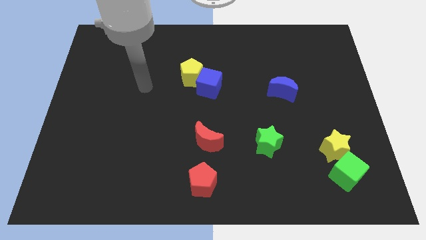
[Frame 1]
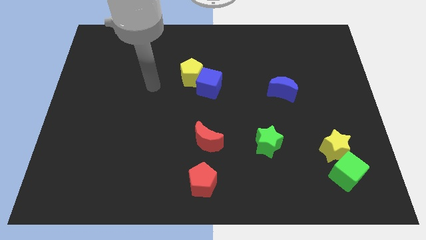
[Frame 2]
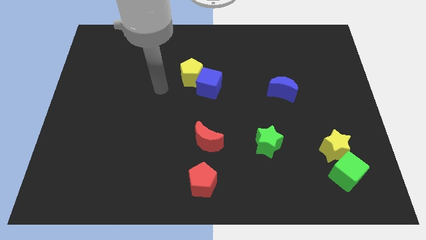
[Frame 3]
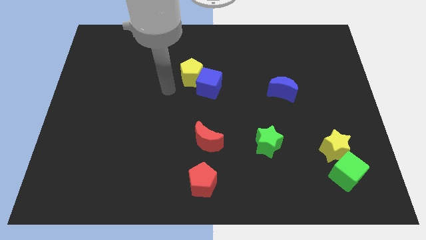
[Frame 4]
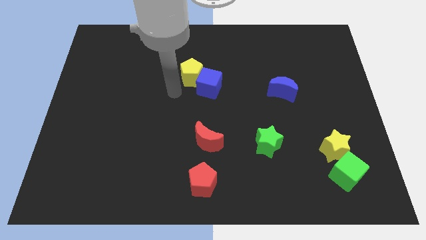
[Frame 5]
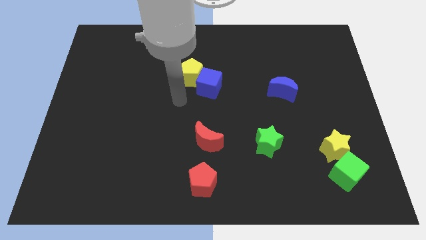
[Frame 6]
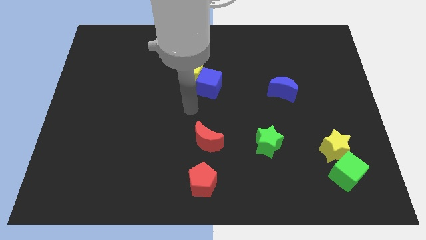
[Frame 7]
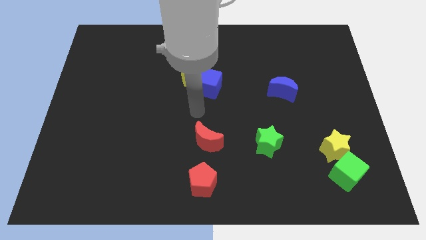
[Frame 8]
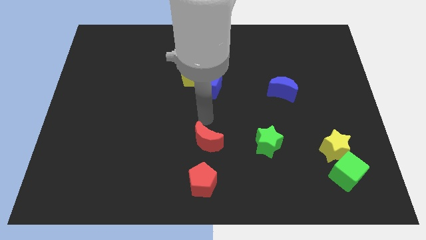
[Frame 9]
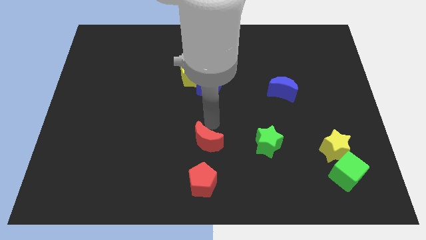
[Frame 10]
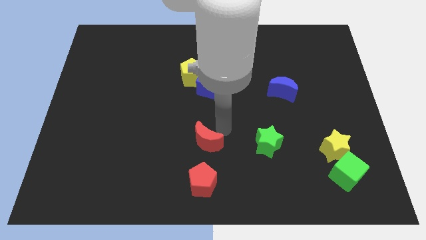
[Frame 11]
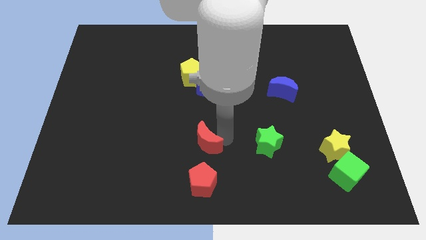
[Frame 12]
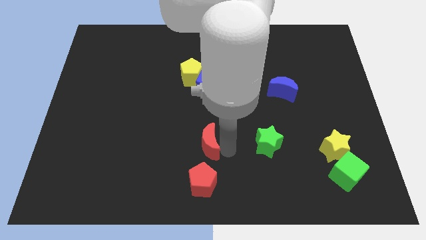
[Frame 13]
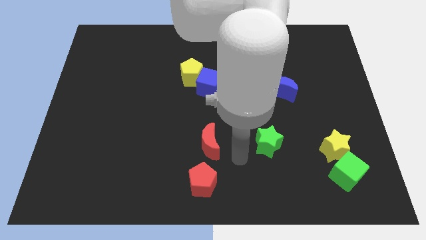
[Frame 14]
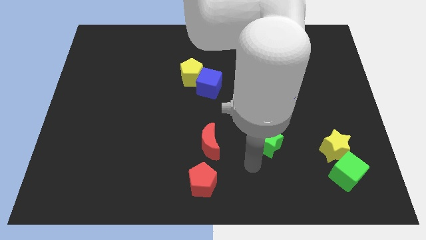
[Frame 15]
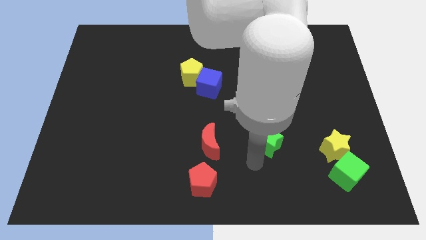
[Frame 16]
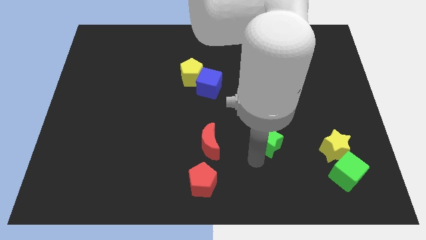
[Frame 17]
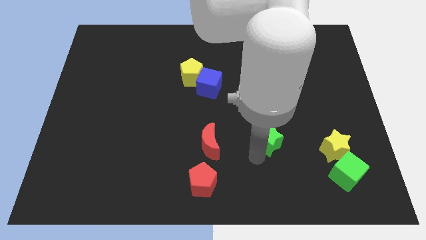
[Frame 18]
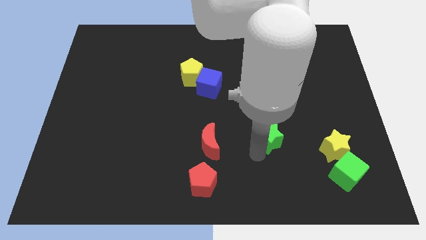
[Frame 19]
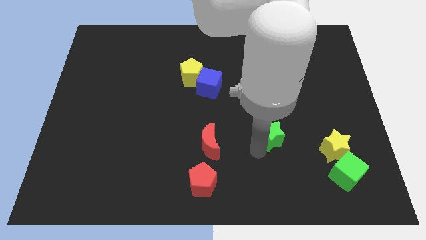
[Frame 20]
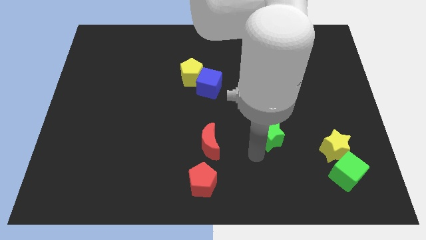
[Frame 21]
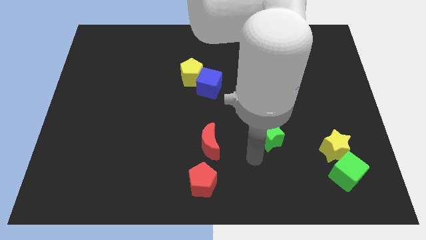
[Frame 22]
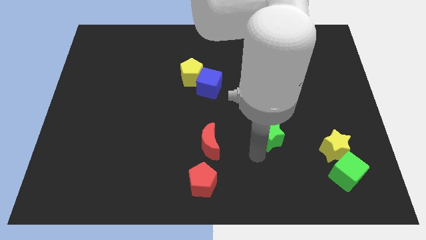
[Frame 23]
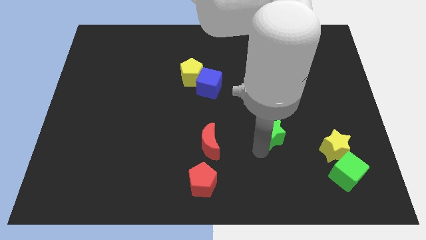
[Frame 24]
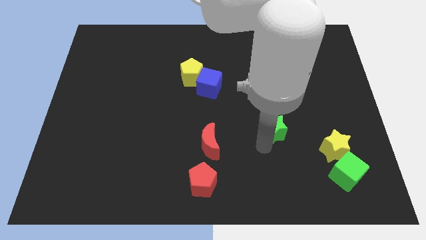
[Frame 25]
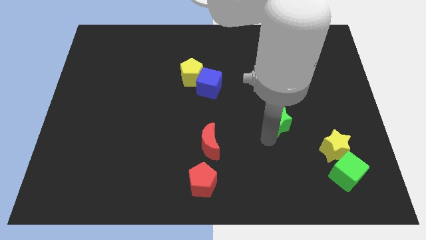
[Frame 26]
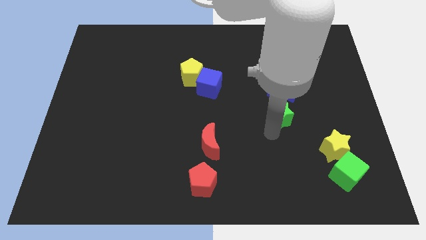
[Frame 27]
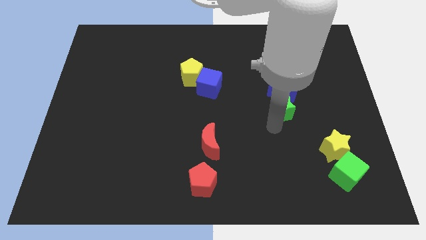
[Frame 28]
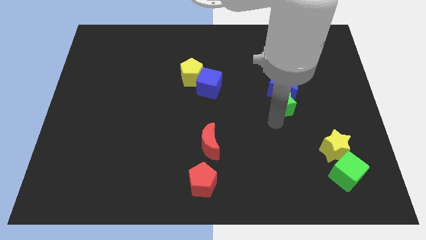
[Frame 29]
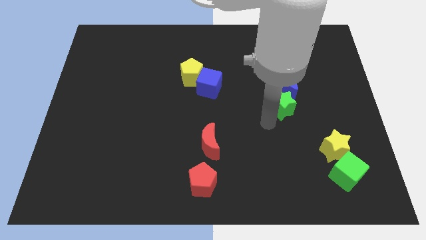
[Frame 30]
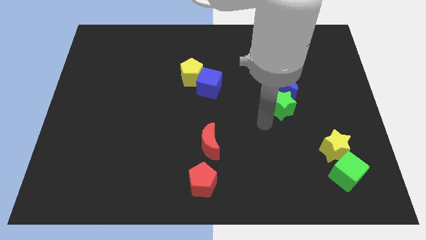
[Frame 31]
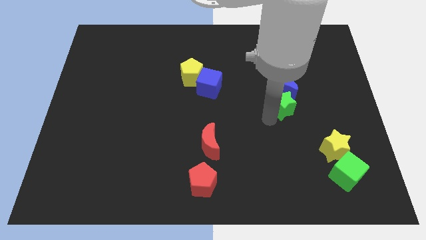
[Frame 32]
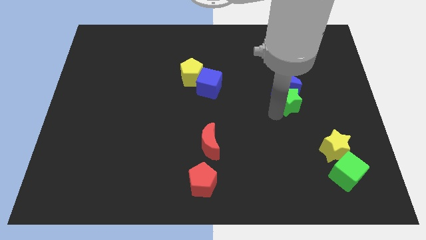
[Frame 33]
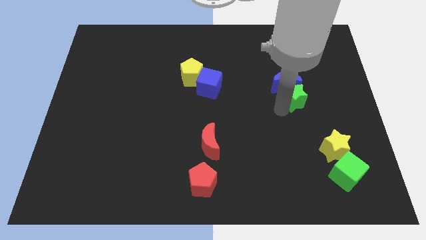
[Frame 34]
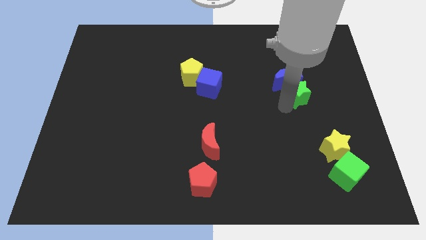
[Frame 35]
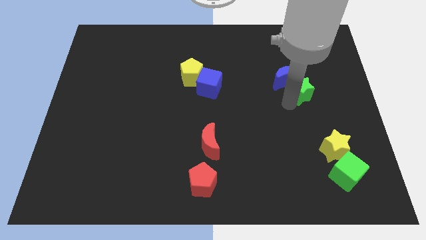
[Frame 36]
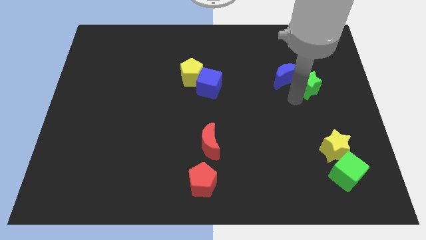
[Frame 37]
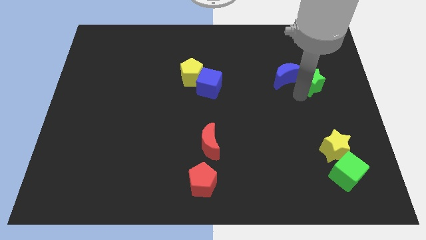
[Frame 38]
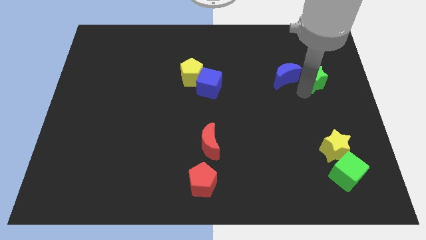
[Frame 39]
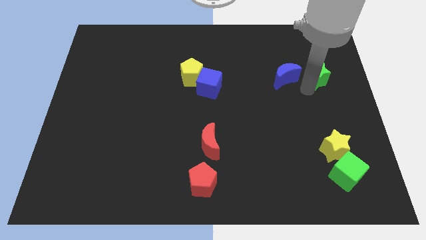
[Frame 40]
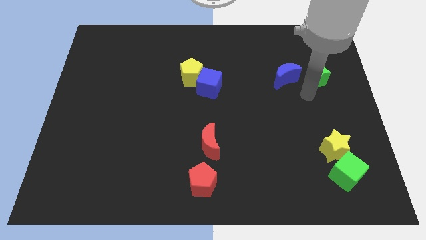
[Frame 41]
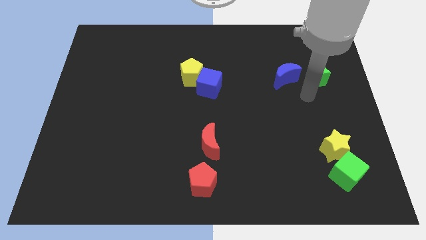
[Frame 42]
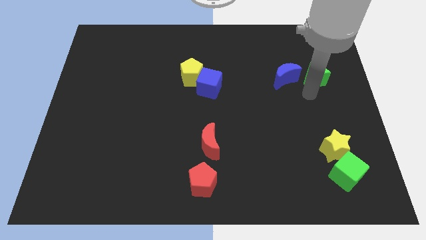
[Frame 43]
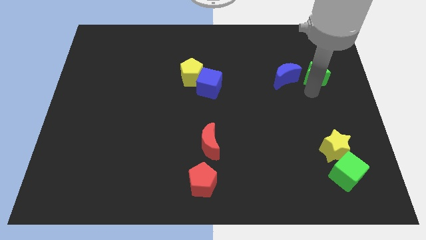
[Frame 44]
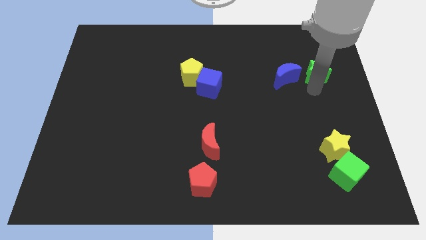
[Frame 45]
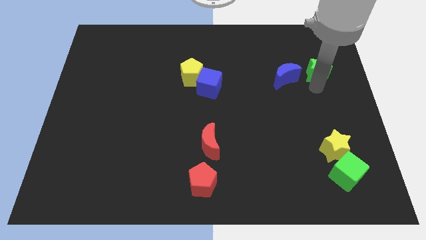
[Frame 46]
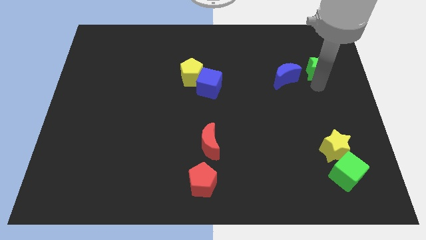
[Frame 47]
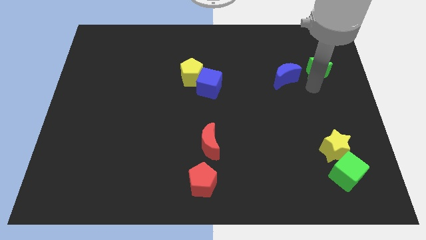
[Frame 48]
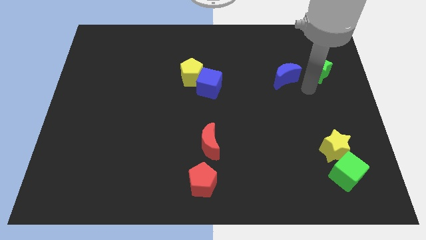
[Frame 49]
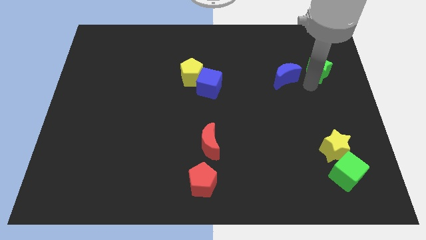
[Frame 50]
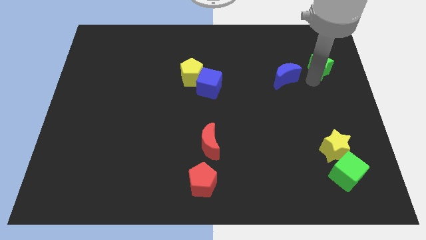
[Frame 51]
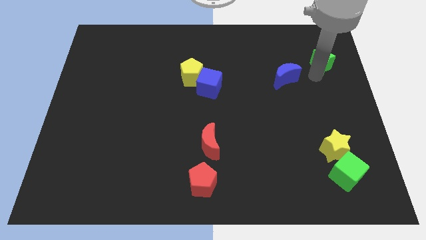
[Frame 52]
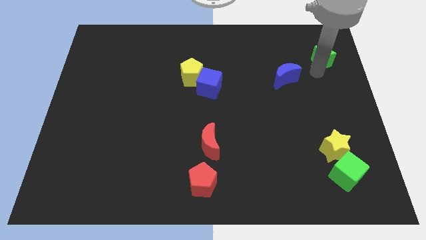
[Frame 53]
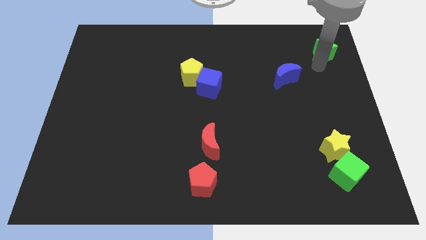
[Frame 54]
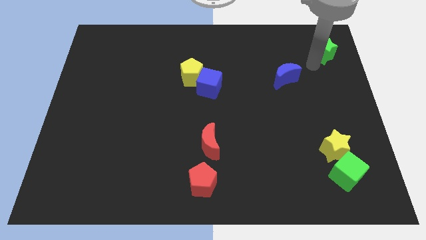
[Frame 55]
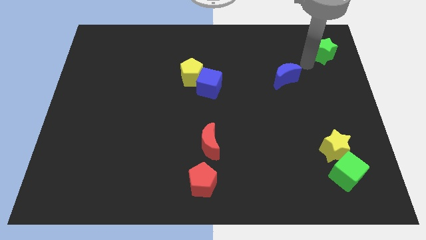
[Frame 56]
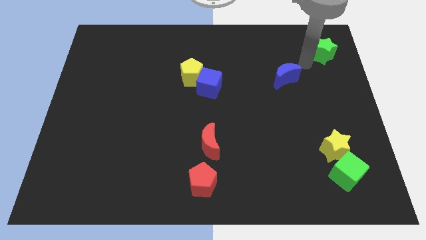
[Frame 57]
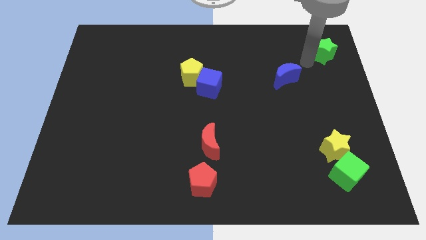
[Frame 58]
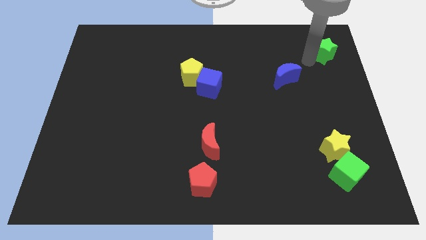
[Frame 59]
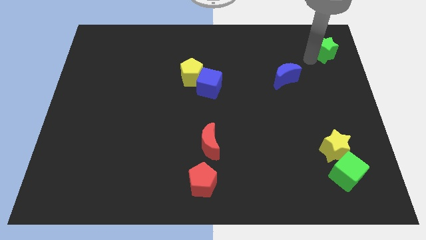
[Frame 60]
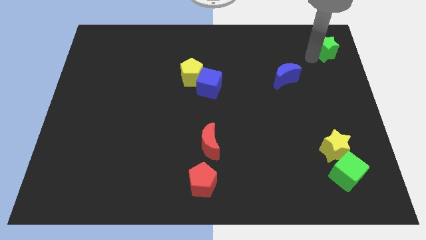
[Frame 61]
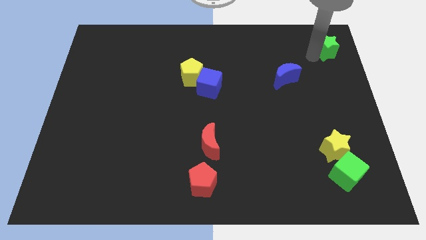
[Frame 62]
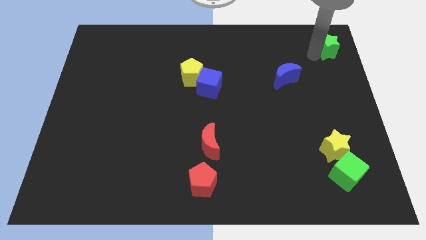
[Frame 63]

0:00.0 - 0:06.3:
push the green star to the top right
